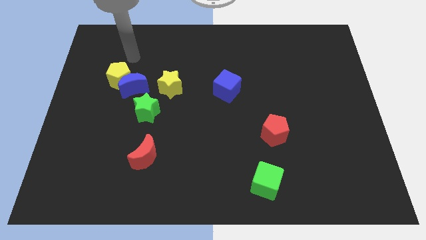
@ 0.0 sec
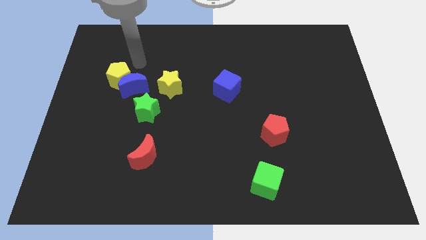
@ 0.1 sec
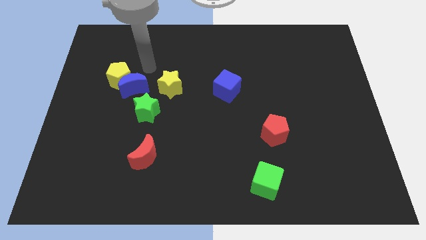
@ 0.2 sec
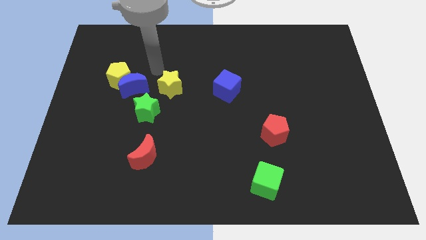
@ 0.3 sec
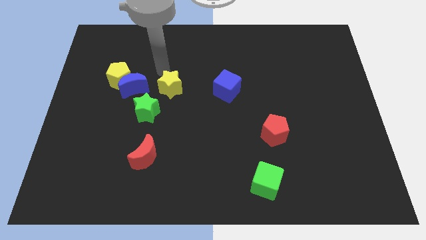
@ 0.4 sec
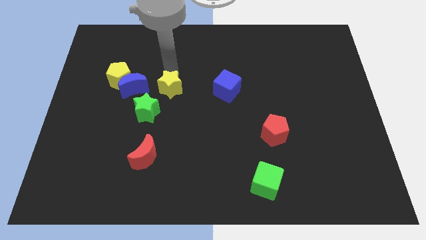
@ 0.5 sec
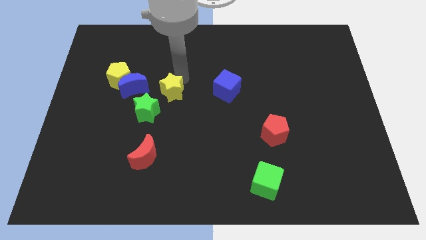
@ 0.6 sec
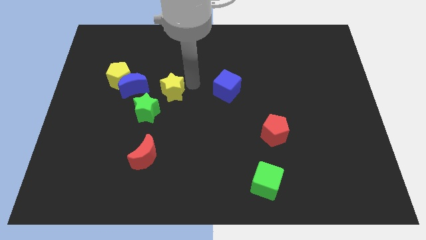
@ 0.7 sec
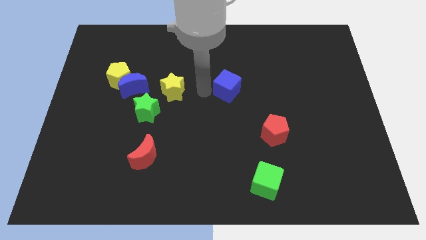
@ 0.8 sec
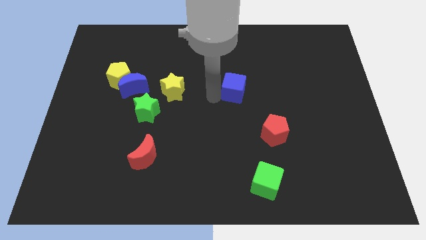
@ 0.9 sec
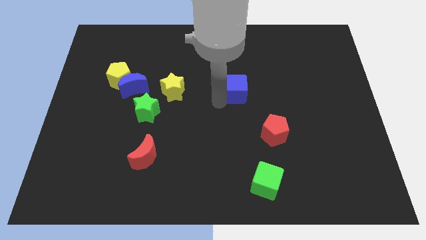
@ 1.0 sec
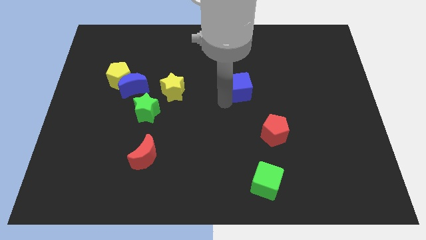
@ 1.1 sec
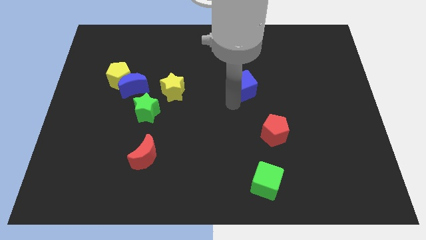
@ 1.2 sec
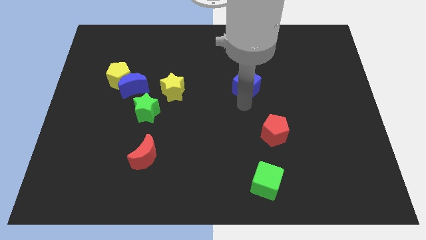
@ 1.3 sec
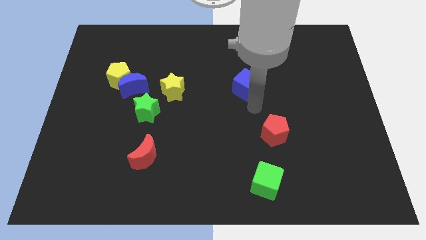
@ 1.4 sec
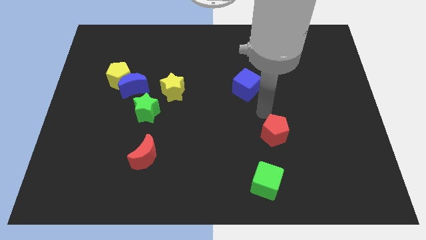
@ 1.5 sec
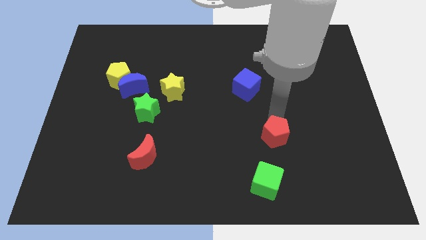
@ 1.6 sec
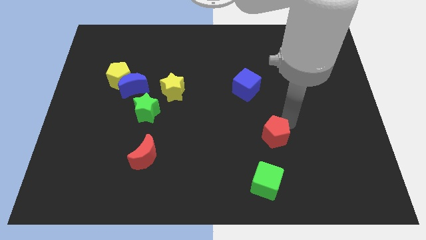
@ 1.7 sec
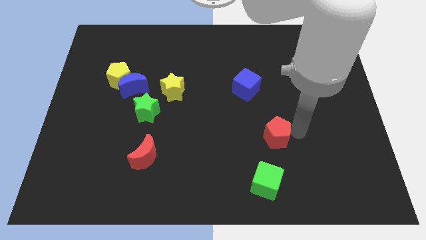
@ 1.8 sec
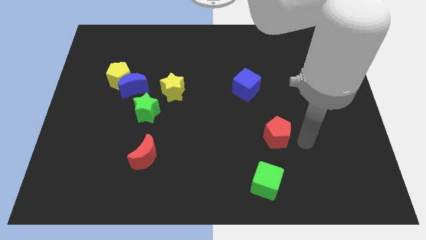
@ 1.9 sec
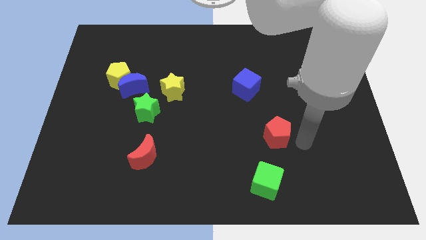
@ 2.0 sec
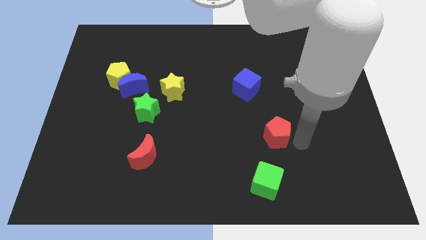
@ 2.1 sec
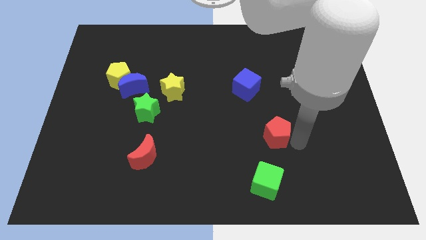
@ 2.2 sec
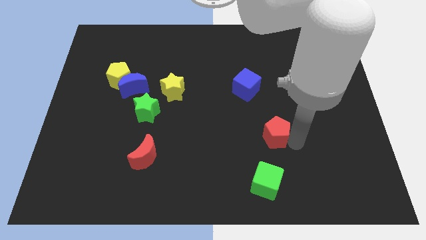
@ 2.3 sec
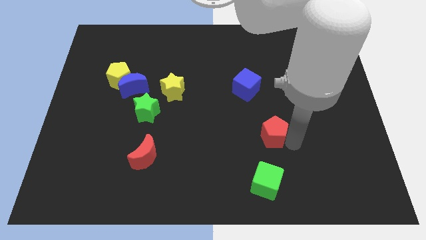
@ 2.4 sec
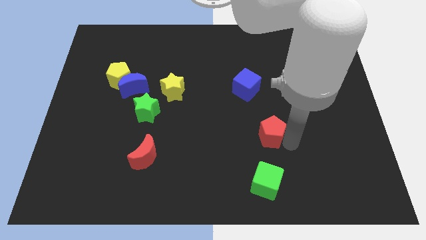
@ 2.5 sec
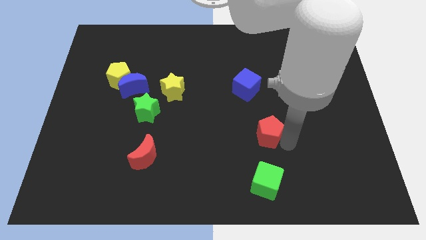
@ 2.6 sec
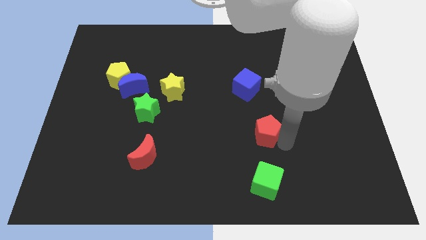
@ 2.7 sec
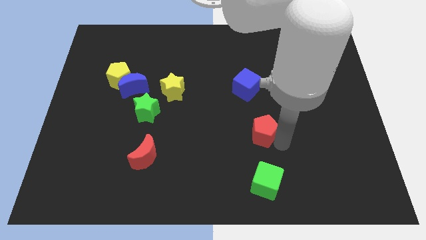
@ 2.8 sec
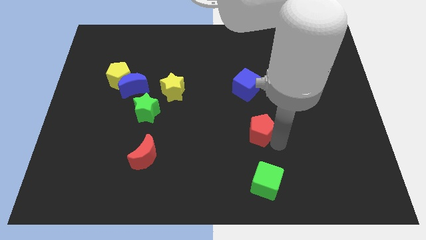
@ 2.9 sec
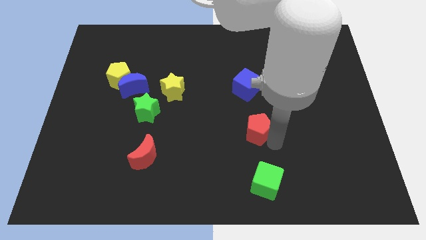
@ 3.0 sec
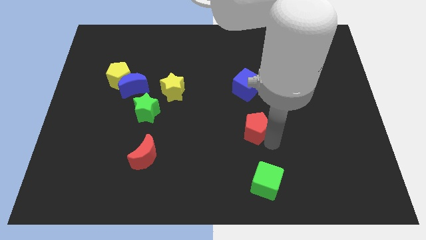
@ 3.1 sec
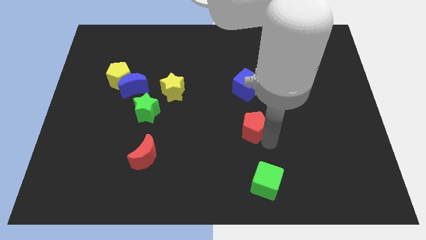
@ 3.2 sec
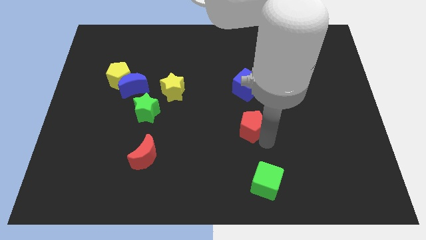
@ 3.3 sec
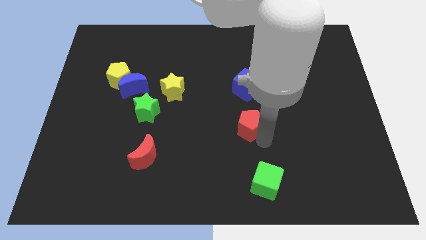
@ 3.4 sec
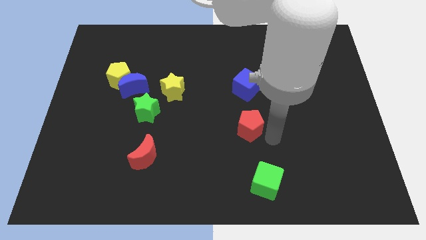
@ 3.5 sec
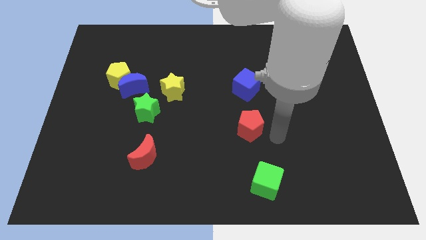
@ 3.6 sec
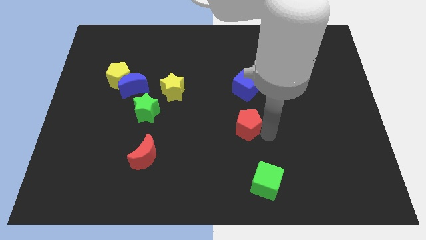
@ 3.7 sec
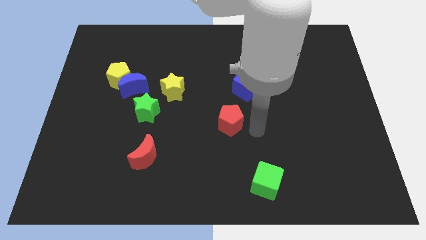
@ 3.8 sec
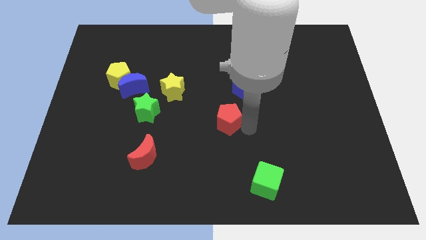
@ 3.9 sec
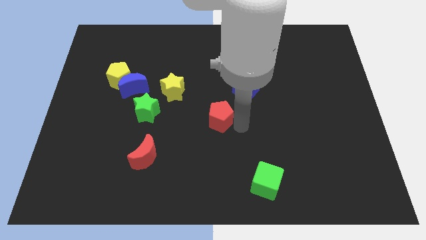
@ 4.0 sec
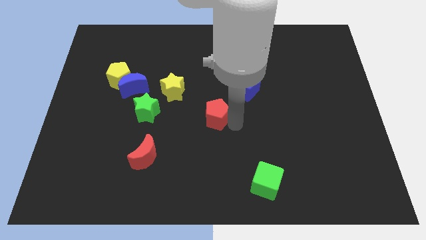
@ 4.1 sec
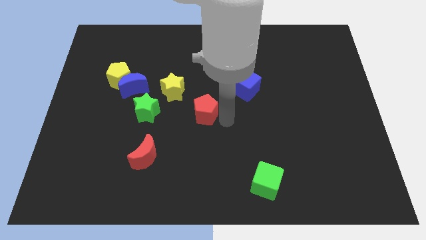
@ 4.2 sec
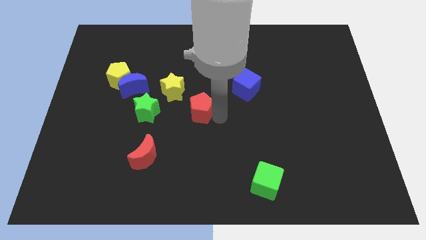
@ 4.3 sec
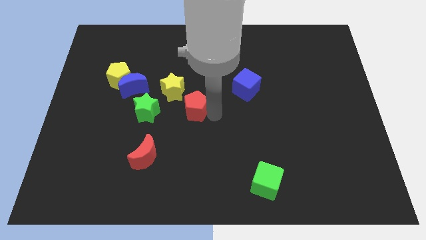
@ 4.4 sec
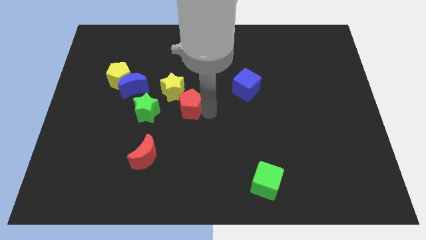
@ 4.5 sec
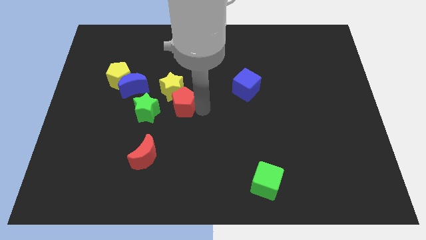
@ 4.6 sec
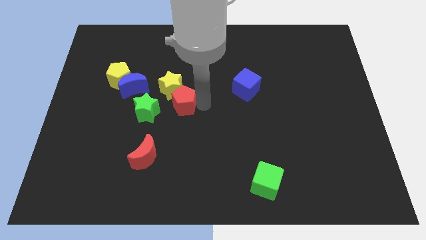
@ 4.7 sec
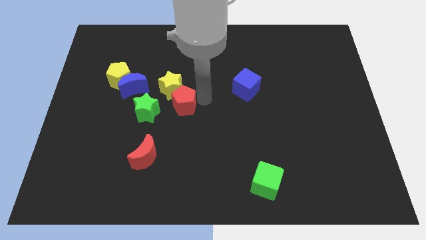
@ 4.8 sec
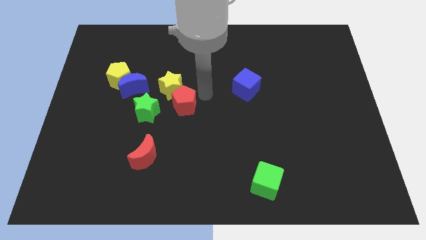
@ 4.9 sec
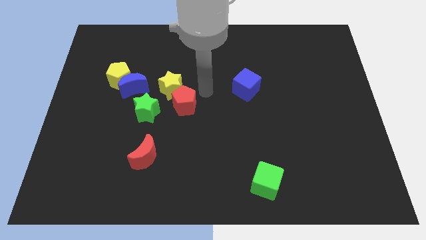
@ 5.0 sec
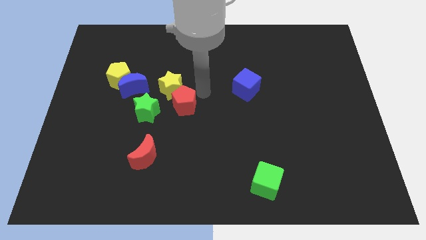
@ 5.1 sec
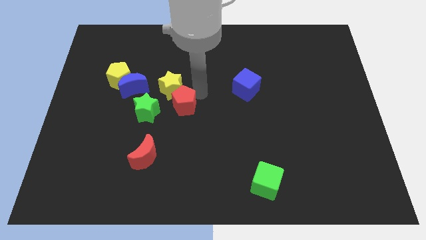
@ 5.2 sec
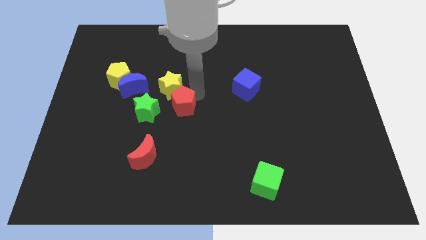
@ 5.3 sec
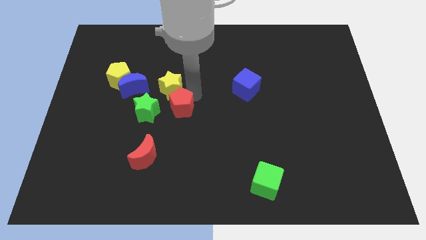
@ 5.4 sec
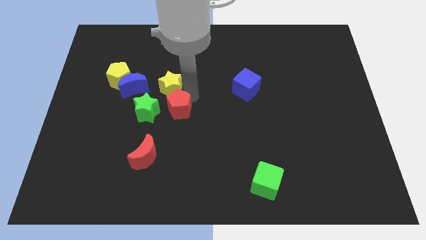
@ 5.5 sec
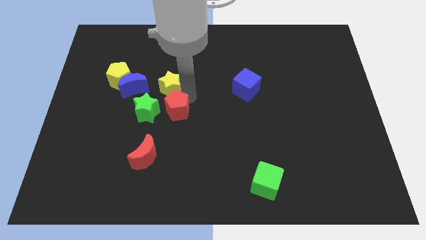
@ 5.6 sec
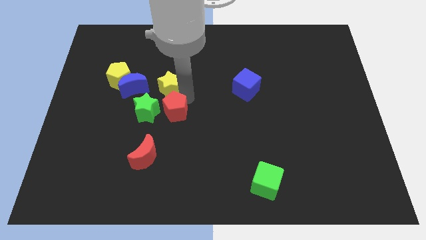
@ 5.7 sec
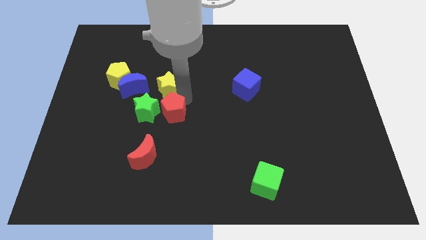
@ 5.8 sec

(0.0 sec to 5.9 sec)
push the red pentagon close to the green star

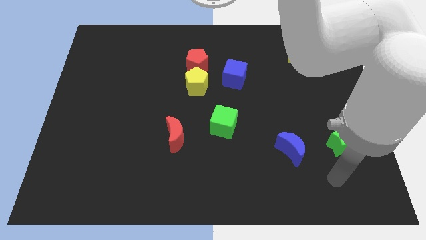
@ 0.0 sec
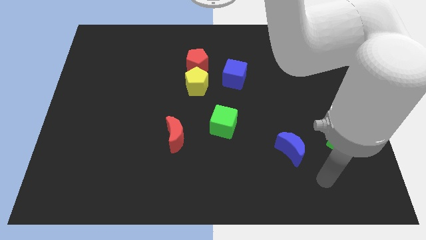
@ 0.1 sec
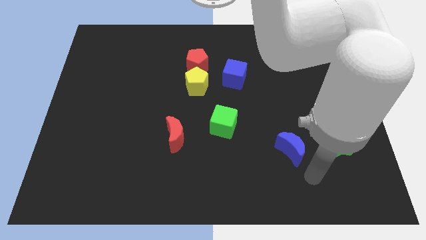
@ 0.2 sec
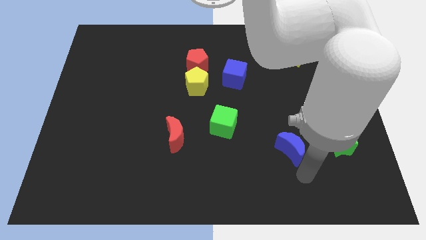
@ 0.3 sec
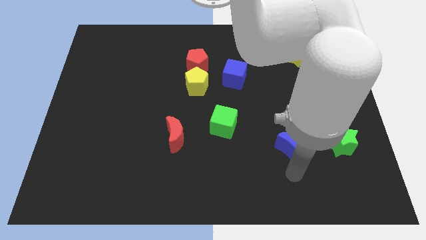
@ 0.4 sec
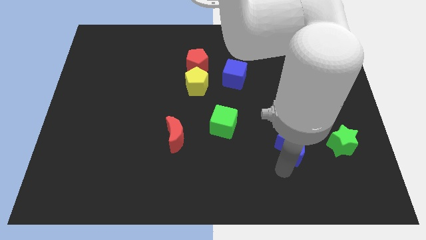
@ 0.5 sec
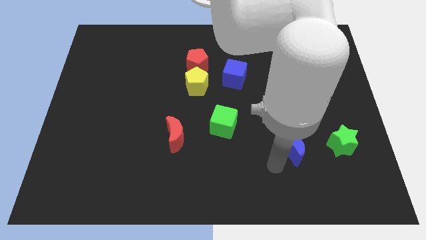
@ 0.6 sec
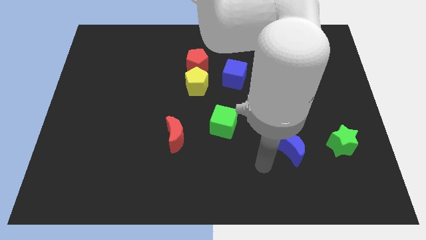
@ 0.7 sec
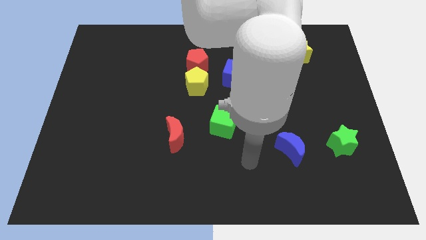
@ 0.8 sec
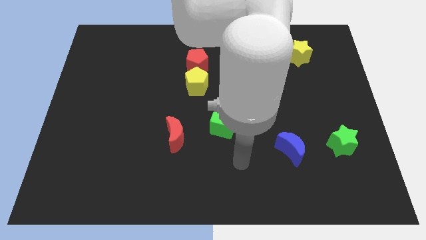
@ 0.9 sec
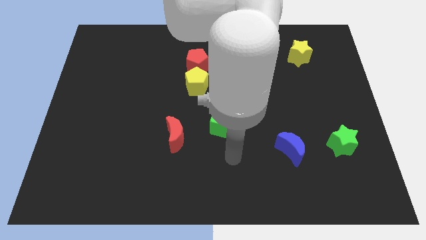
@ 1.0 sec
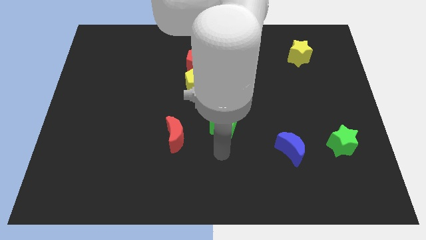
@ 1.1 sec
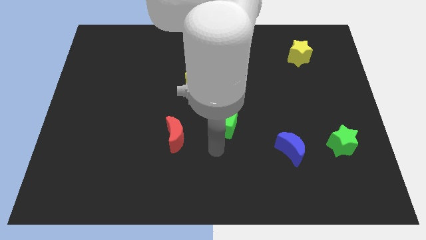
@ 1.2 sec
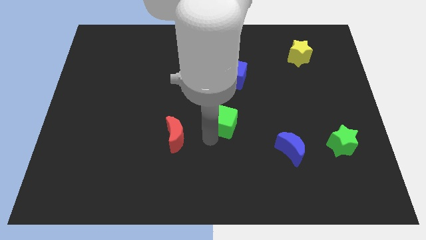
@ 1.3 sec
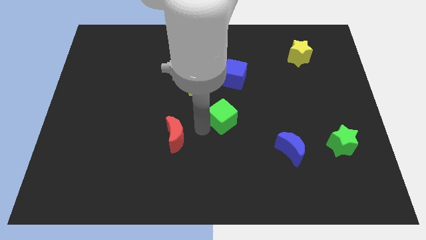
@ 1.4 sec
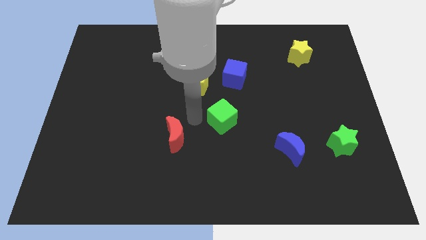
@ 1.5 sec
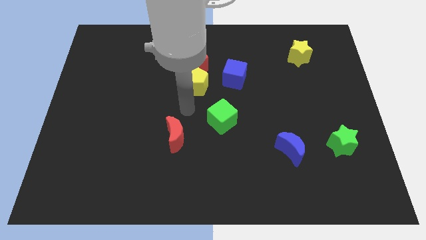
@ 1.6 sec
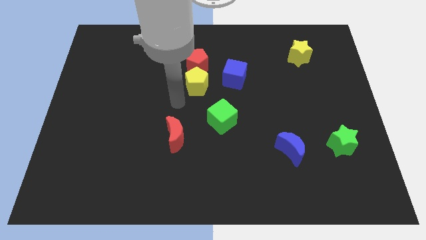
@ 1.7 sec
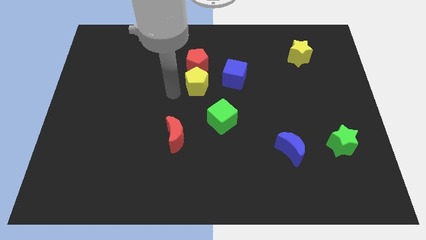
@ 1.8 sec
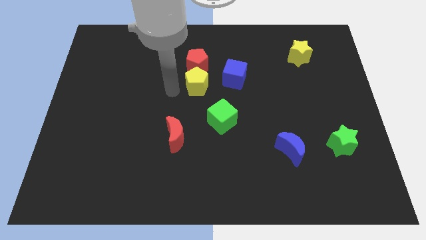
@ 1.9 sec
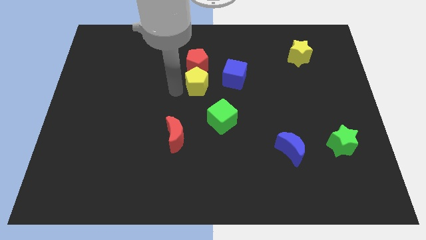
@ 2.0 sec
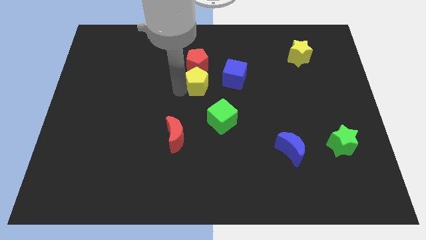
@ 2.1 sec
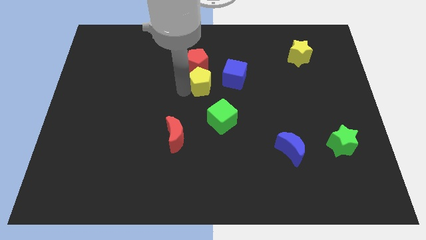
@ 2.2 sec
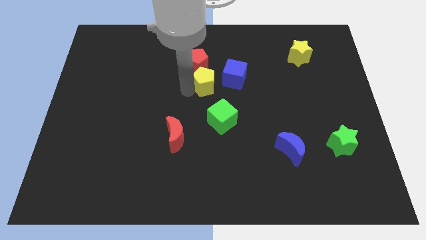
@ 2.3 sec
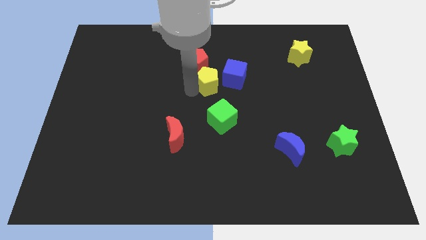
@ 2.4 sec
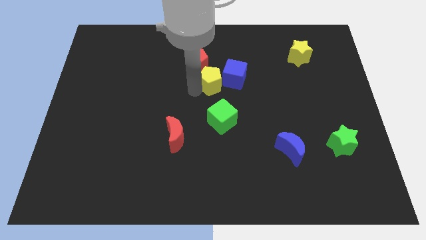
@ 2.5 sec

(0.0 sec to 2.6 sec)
push the yellow pentagon to the blue cube
